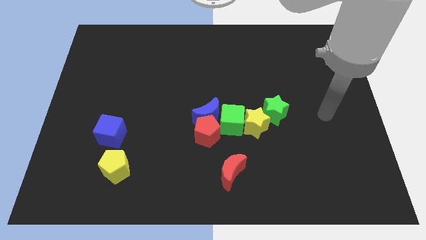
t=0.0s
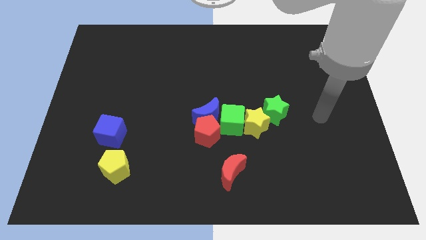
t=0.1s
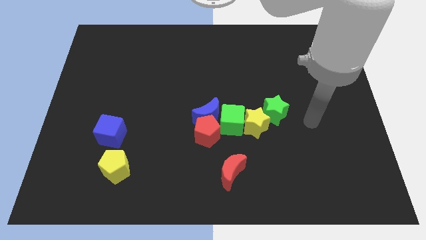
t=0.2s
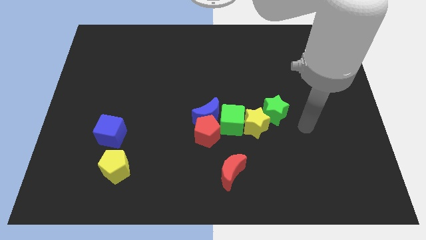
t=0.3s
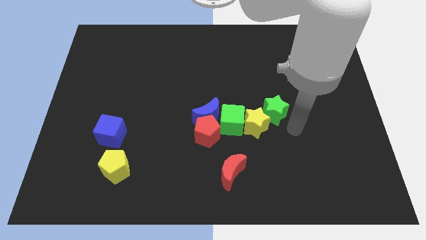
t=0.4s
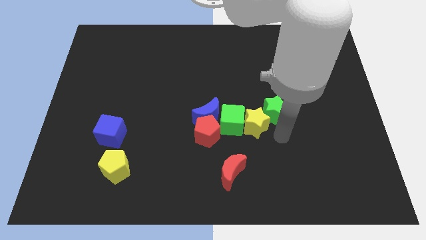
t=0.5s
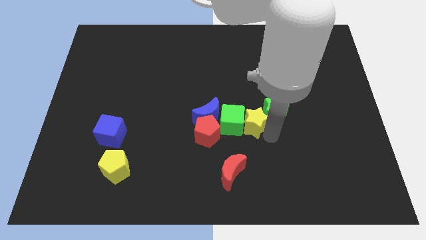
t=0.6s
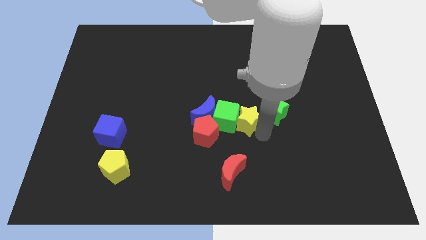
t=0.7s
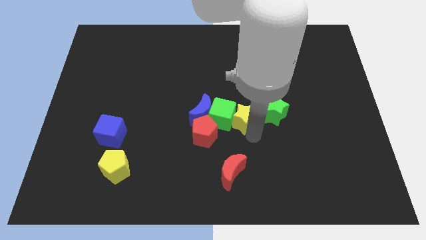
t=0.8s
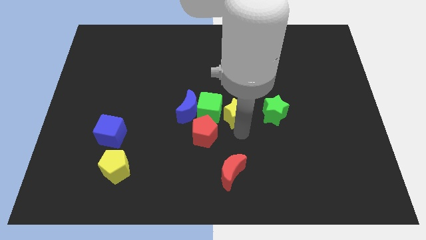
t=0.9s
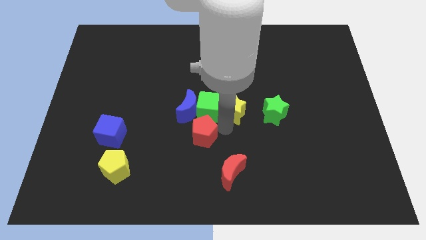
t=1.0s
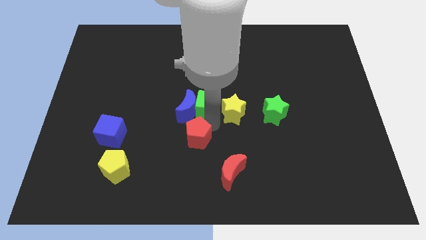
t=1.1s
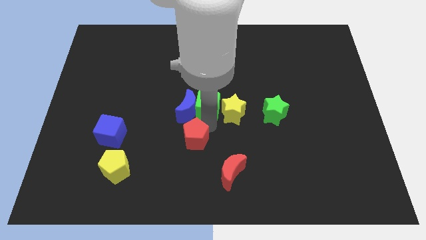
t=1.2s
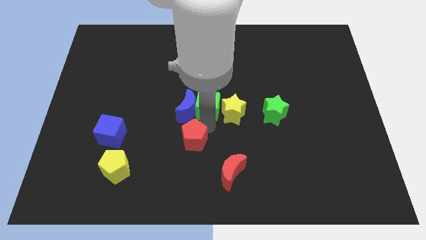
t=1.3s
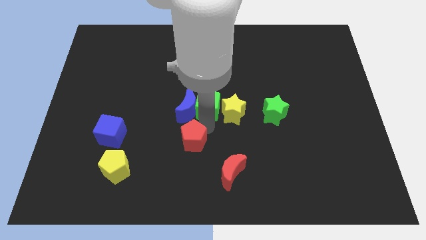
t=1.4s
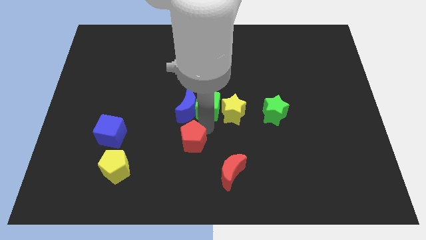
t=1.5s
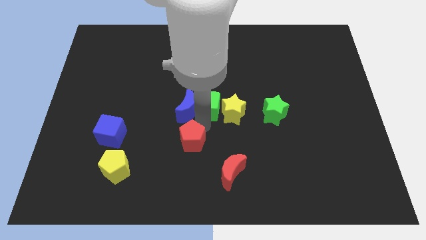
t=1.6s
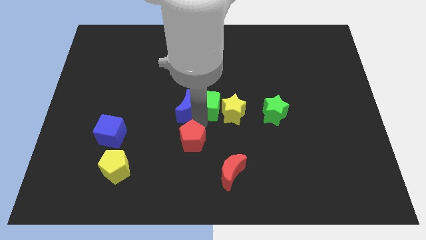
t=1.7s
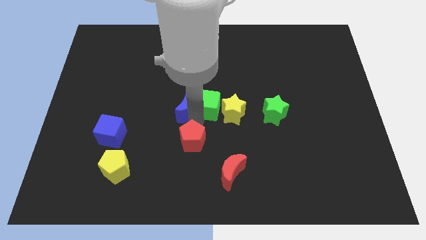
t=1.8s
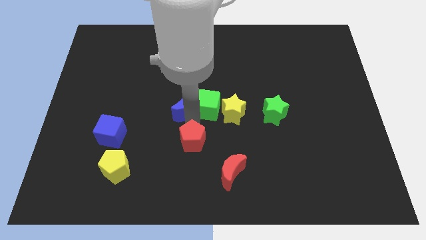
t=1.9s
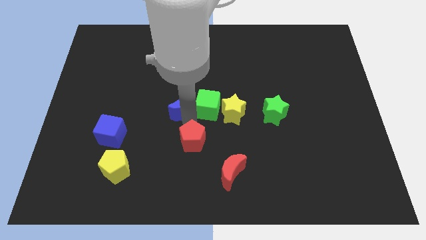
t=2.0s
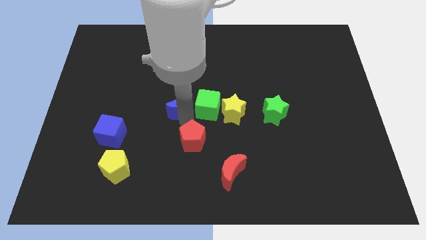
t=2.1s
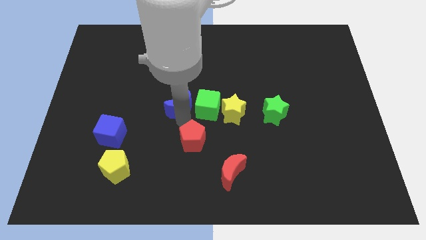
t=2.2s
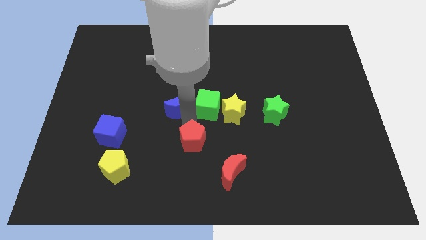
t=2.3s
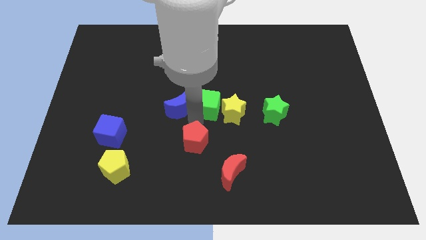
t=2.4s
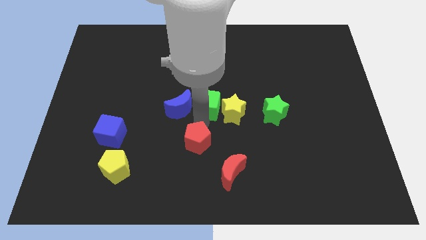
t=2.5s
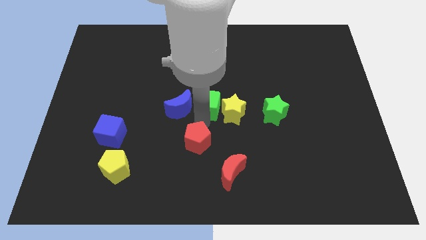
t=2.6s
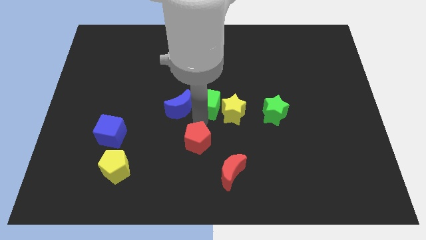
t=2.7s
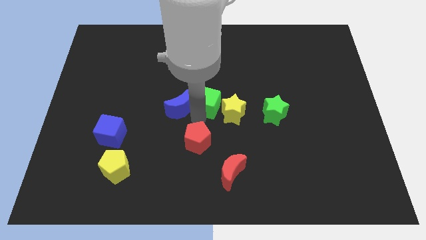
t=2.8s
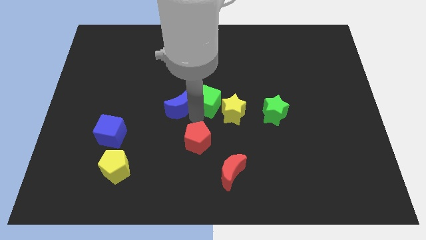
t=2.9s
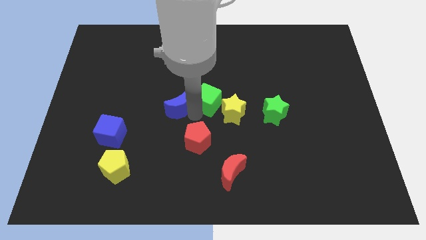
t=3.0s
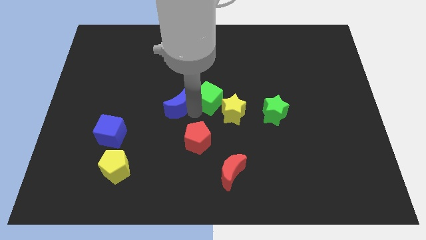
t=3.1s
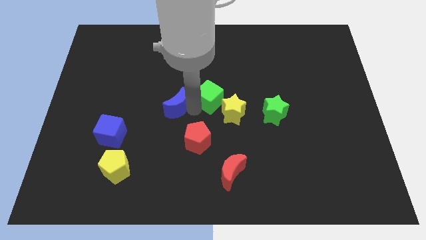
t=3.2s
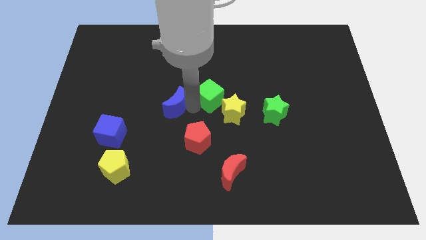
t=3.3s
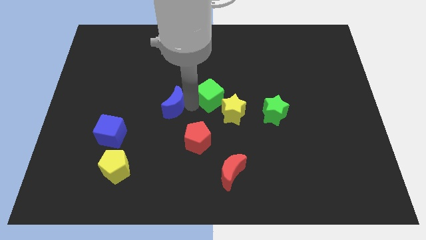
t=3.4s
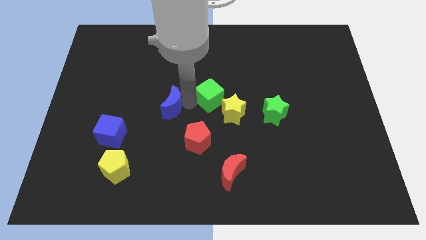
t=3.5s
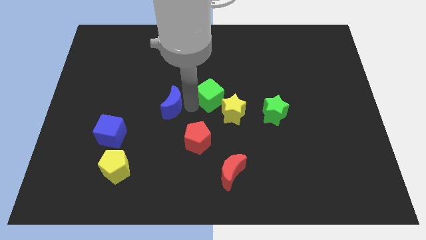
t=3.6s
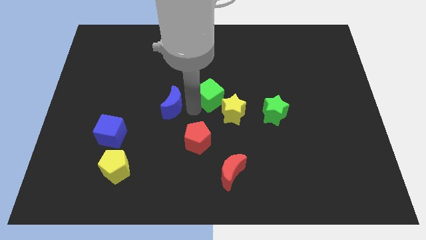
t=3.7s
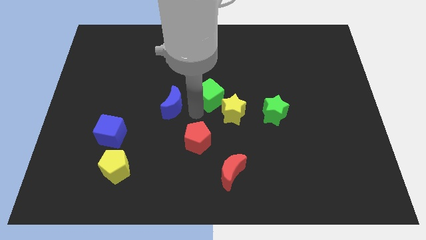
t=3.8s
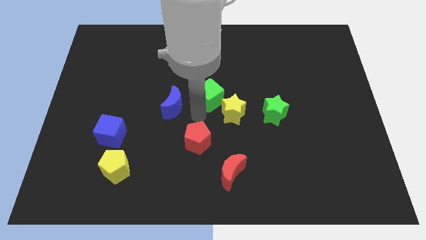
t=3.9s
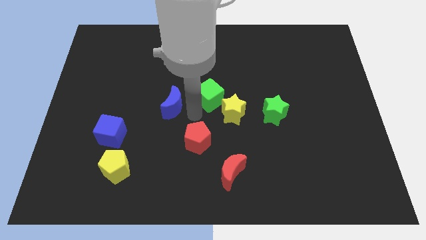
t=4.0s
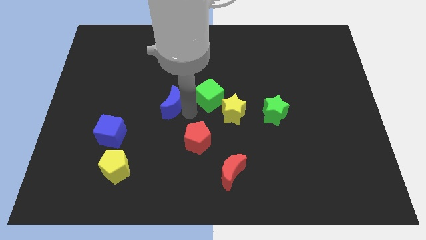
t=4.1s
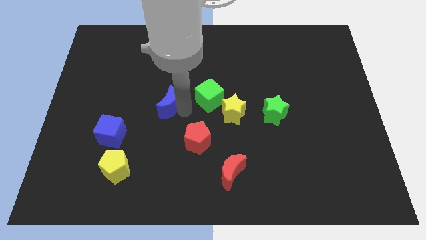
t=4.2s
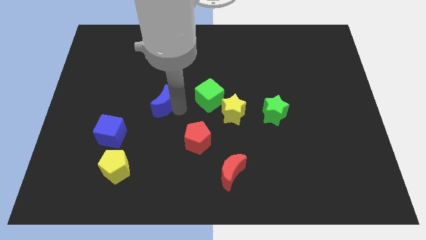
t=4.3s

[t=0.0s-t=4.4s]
separate the blue moon from the red pentagon and green cube

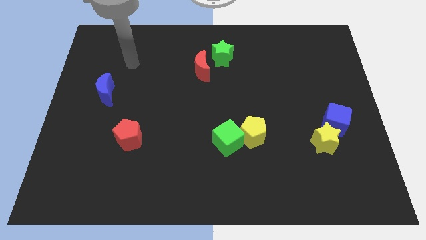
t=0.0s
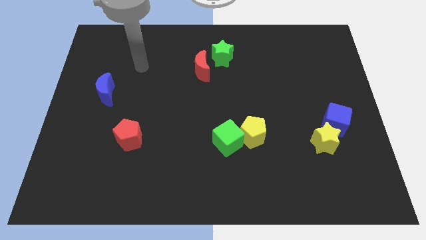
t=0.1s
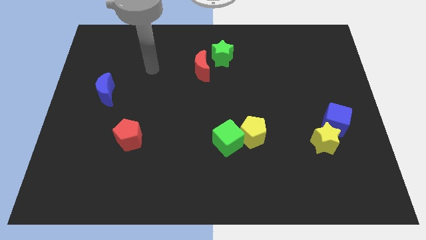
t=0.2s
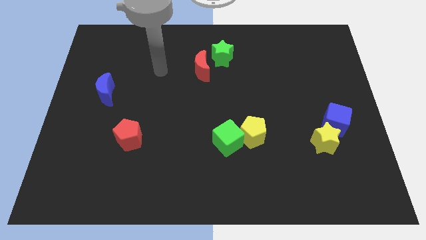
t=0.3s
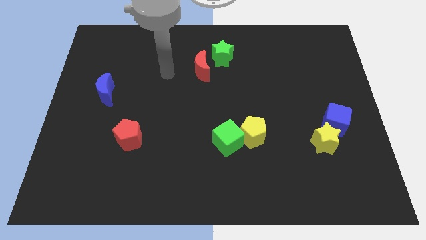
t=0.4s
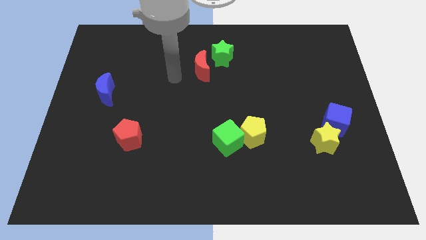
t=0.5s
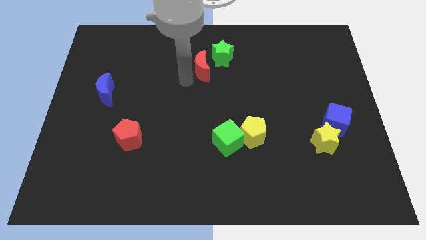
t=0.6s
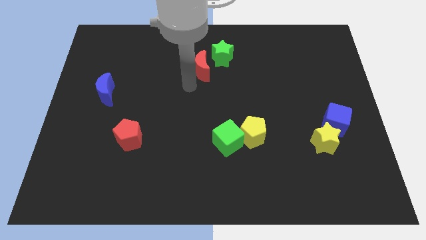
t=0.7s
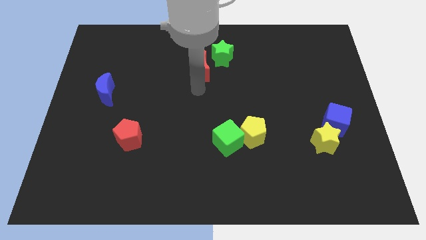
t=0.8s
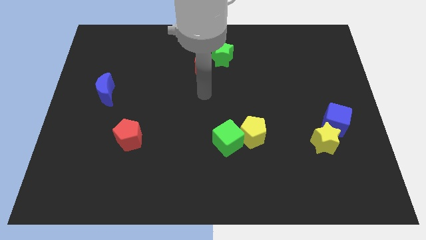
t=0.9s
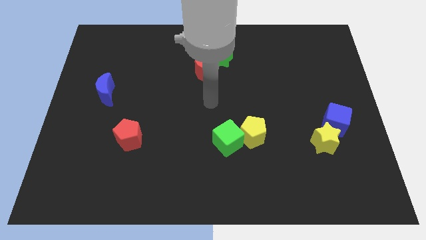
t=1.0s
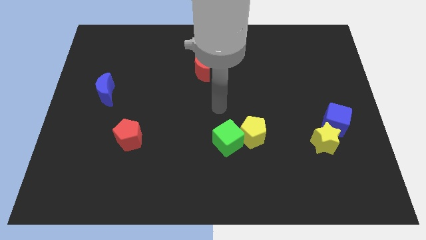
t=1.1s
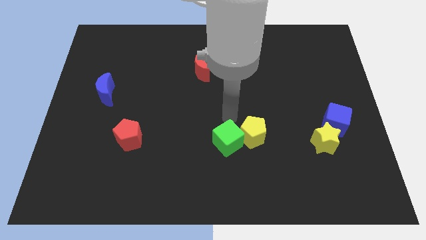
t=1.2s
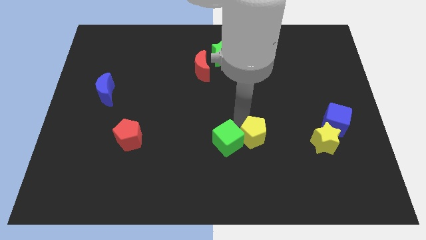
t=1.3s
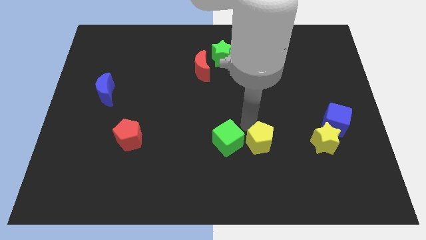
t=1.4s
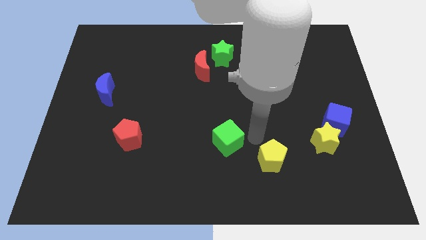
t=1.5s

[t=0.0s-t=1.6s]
move the green cube away from the yellow pentagon

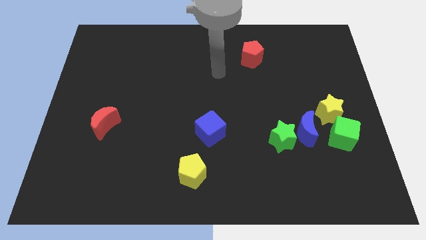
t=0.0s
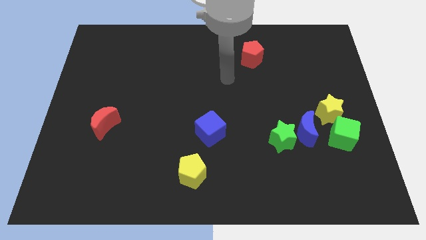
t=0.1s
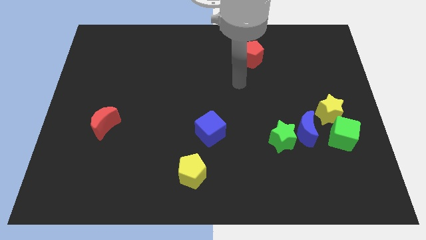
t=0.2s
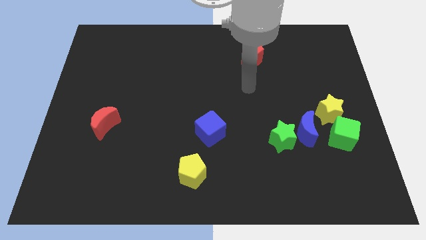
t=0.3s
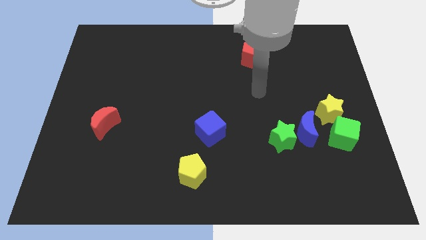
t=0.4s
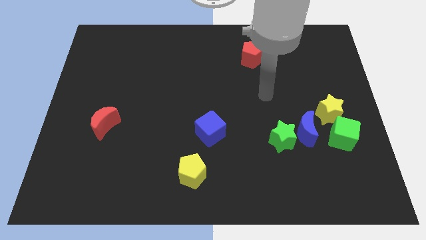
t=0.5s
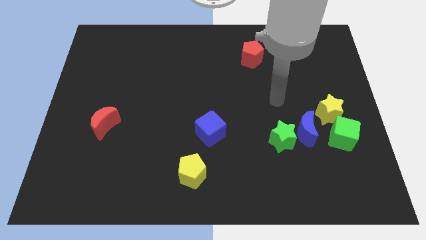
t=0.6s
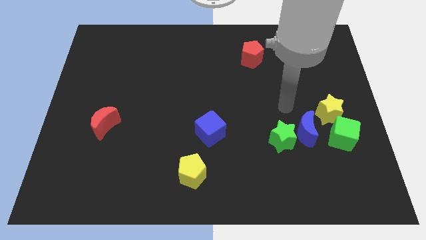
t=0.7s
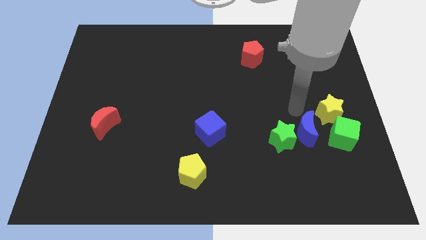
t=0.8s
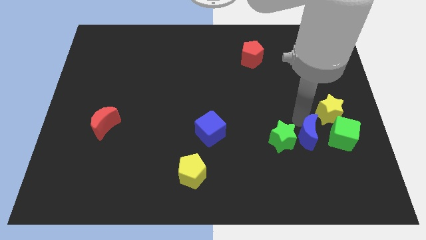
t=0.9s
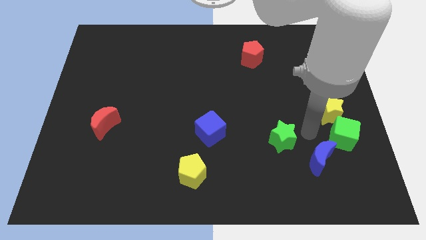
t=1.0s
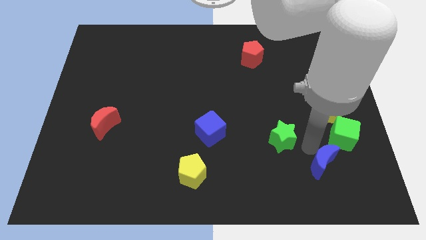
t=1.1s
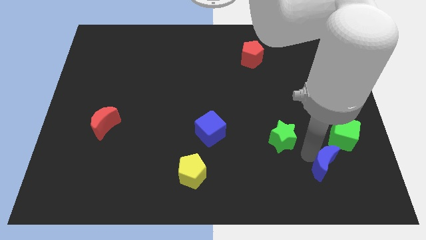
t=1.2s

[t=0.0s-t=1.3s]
pull the green star apart from the blue moon

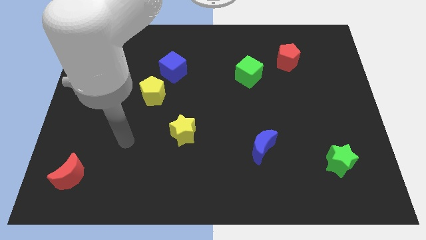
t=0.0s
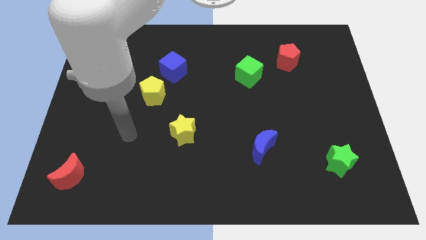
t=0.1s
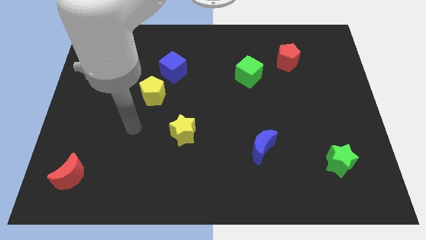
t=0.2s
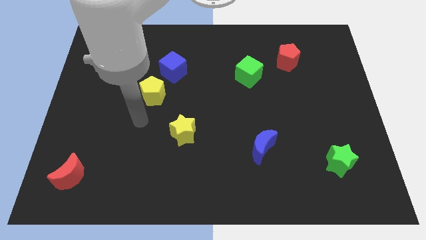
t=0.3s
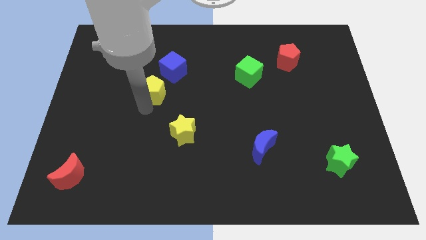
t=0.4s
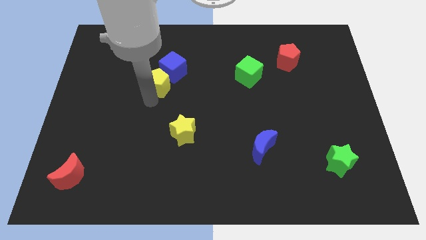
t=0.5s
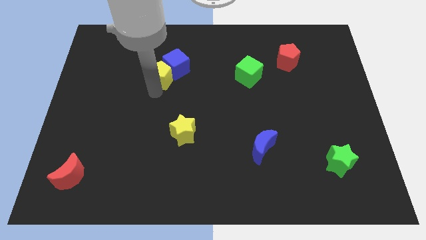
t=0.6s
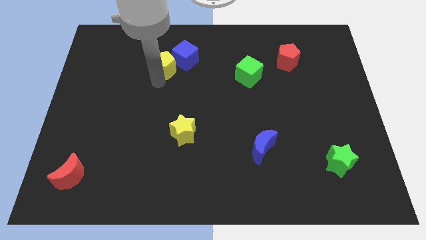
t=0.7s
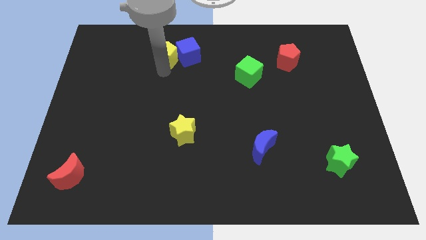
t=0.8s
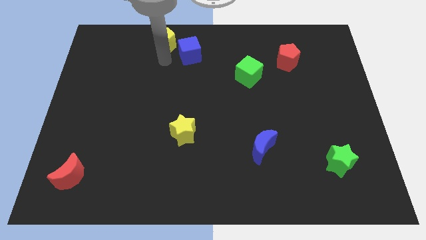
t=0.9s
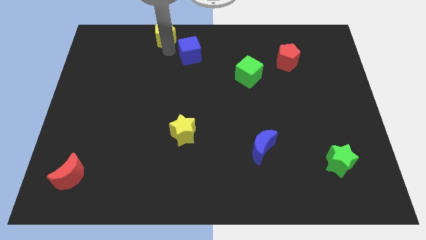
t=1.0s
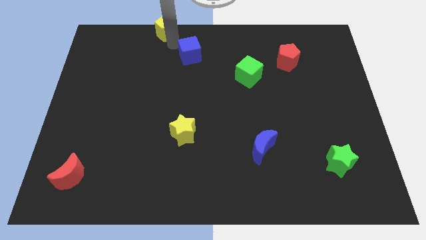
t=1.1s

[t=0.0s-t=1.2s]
separate the blue cube from the yellow pentagon

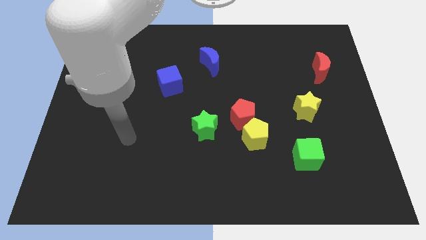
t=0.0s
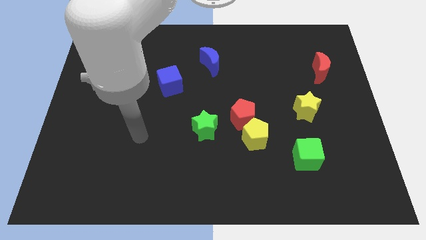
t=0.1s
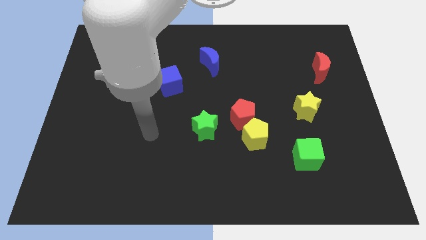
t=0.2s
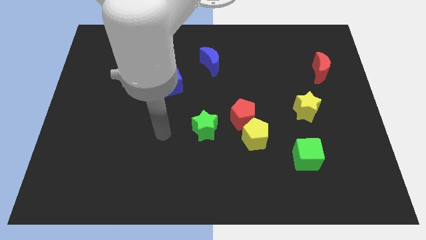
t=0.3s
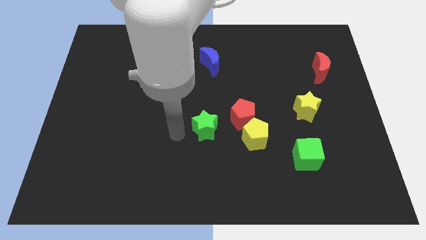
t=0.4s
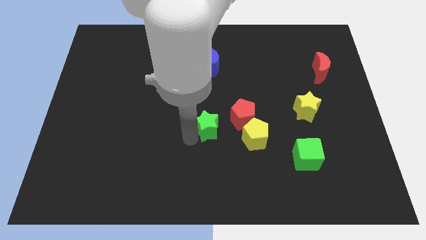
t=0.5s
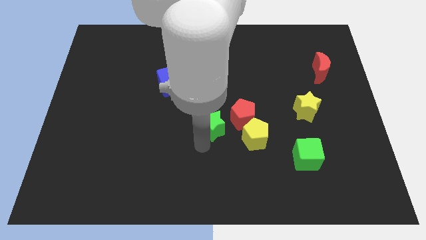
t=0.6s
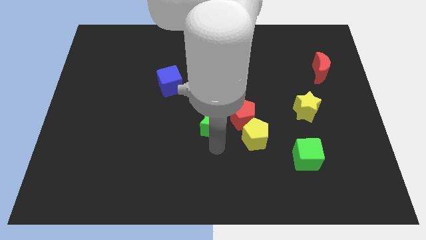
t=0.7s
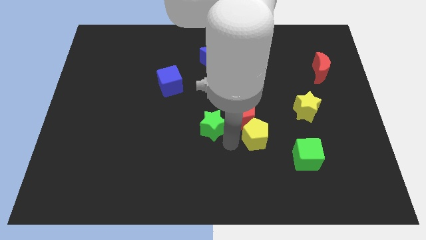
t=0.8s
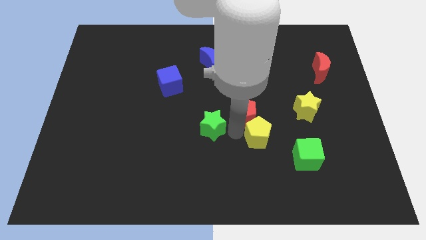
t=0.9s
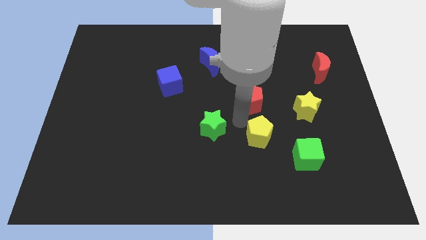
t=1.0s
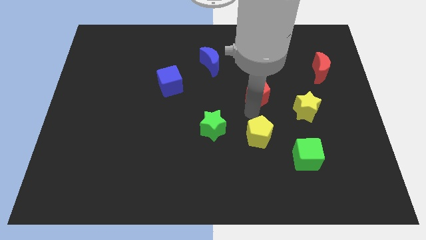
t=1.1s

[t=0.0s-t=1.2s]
pull the yellow pentagon apart from the red pentagon
